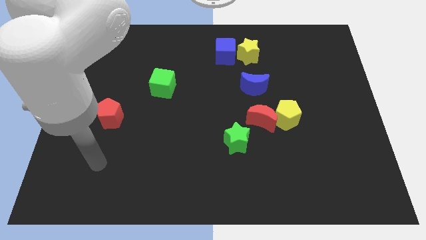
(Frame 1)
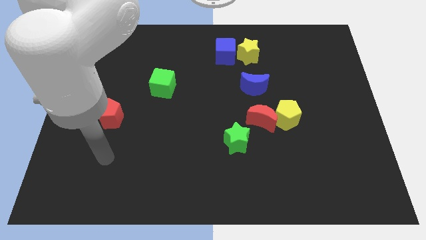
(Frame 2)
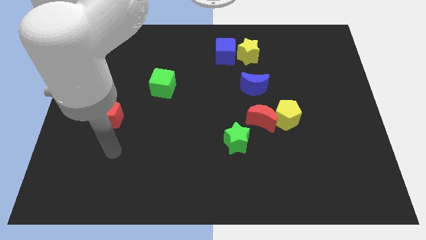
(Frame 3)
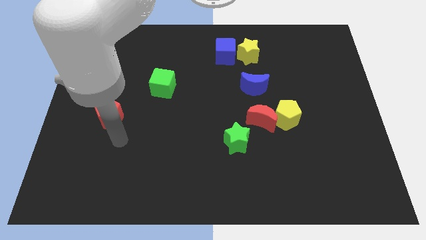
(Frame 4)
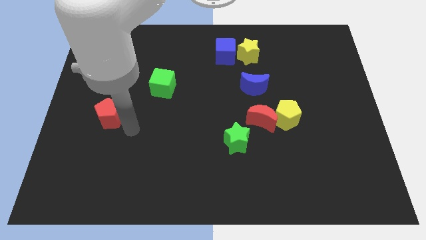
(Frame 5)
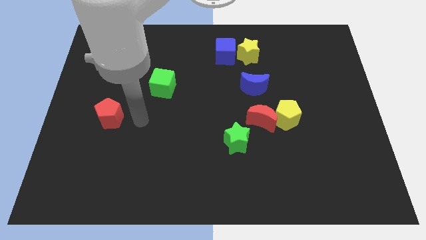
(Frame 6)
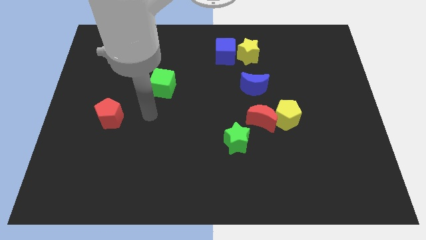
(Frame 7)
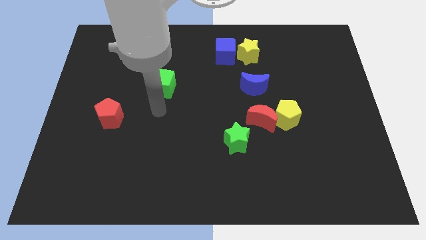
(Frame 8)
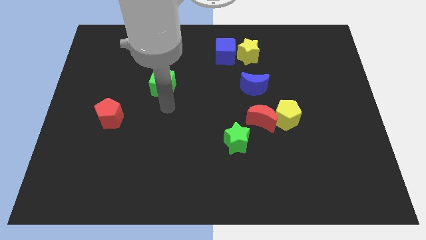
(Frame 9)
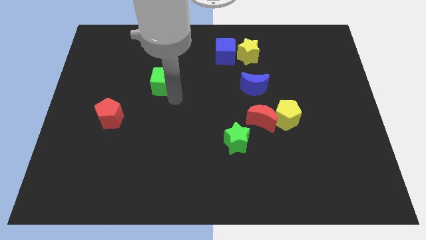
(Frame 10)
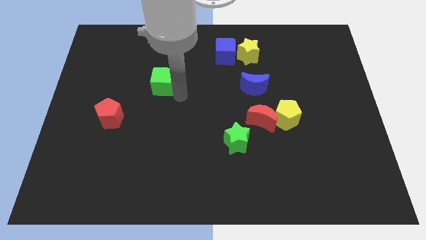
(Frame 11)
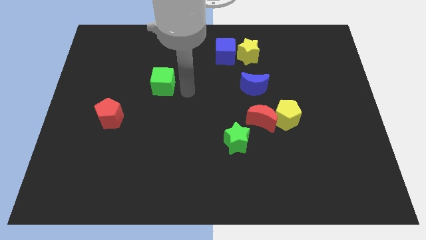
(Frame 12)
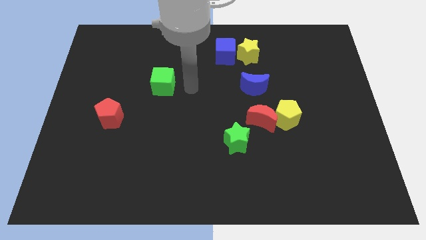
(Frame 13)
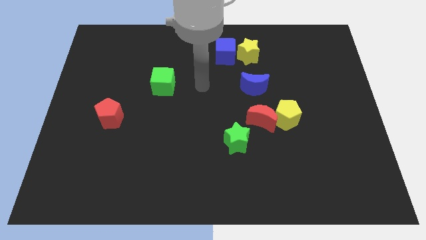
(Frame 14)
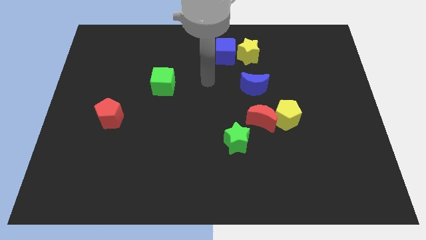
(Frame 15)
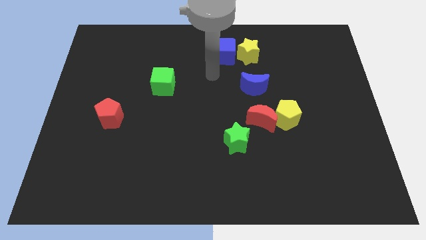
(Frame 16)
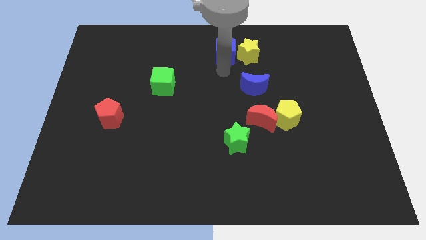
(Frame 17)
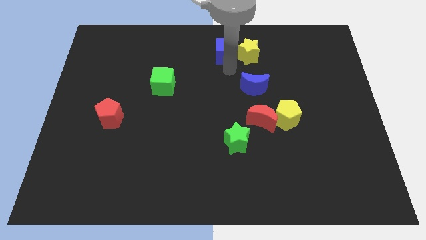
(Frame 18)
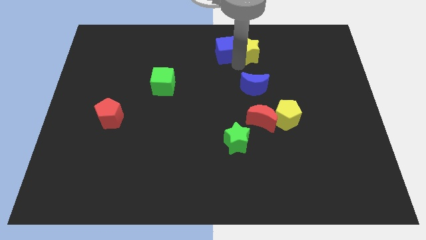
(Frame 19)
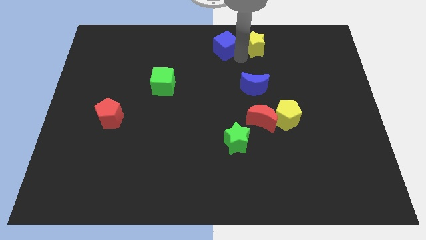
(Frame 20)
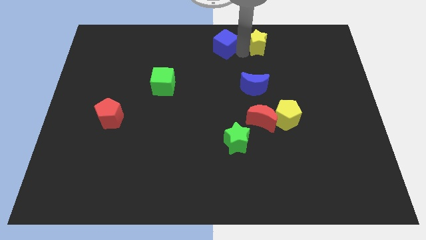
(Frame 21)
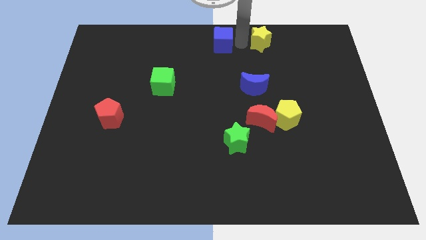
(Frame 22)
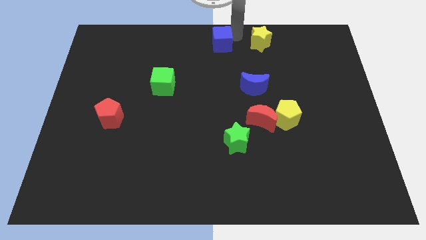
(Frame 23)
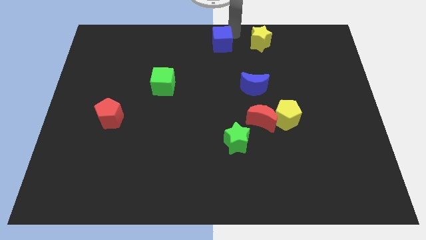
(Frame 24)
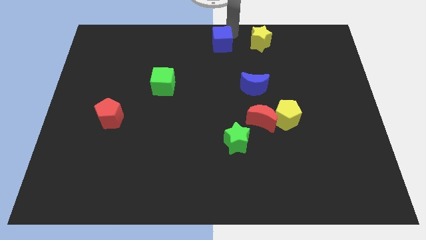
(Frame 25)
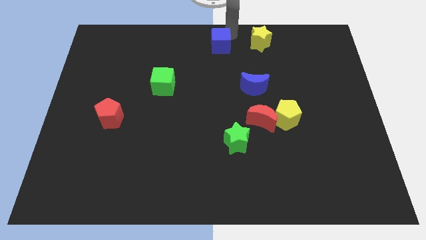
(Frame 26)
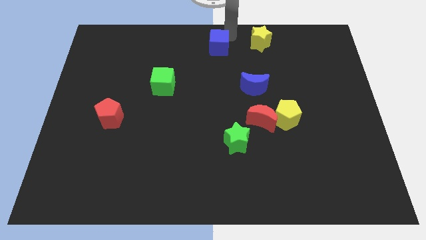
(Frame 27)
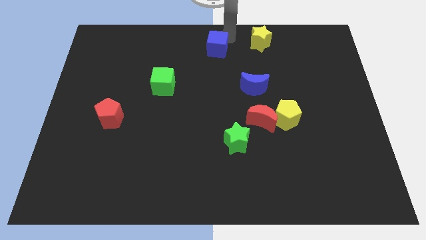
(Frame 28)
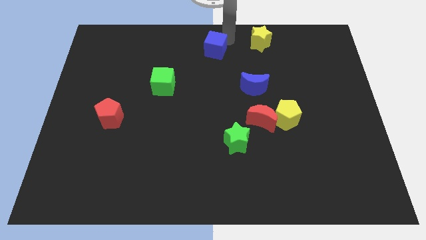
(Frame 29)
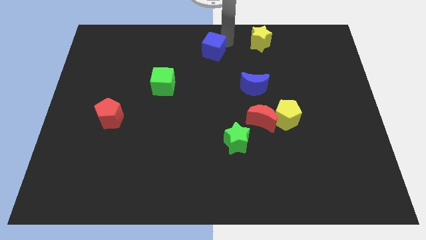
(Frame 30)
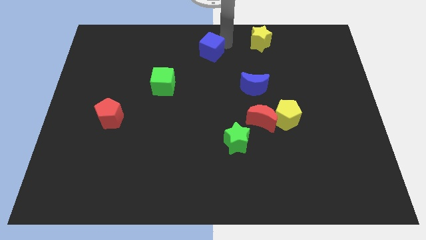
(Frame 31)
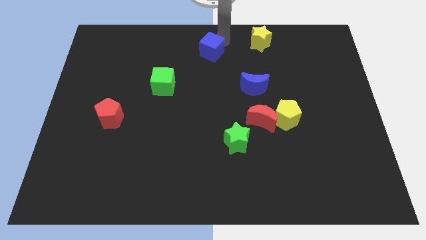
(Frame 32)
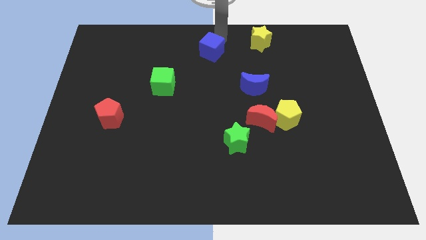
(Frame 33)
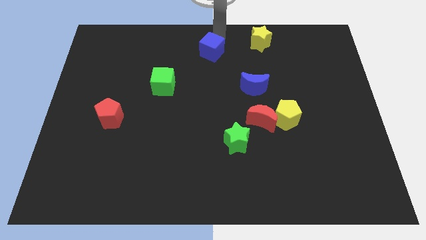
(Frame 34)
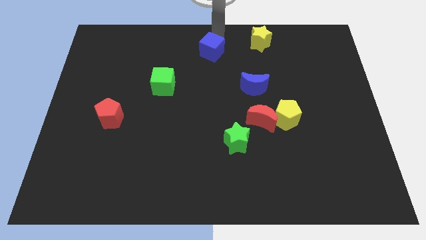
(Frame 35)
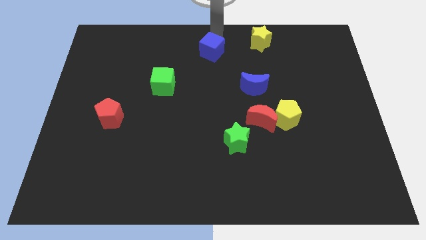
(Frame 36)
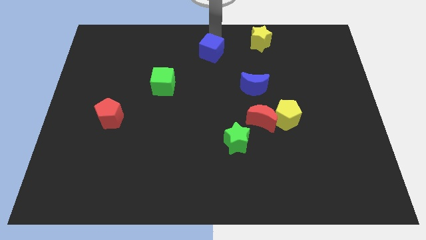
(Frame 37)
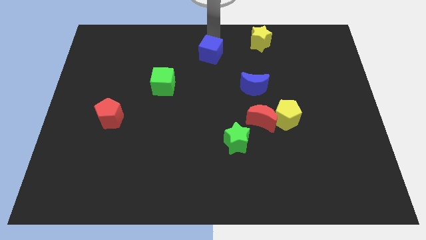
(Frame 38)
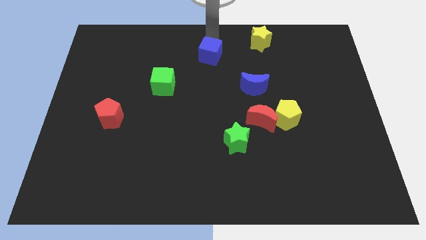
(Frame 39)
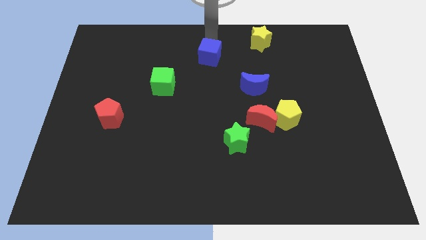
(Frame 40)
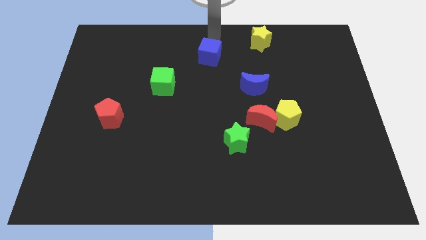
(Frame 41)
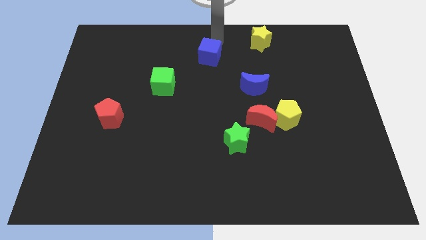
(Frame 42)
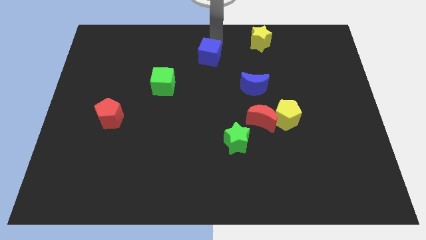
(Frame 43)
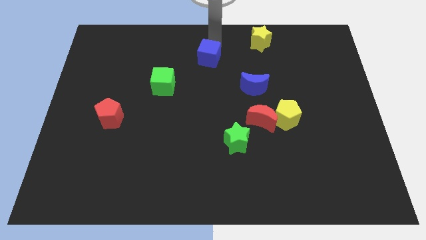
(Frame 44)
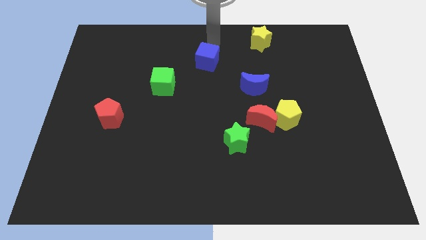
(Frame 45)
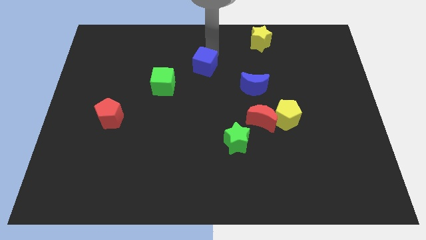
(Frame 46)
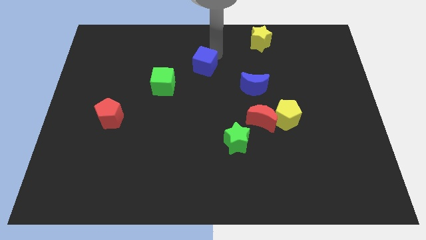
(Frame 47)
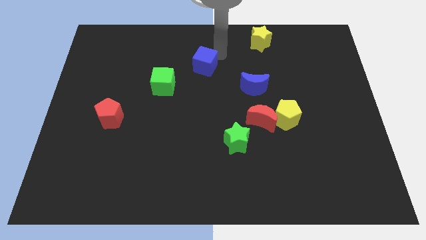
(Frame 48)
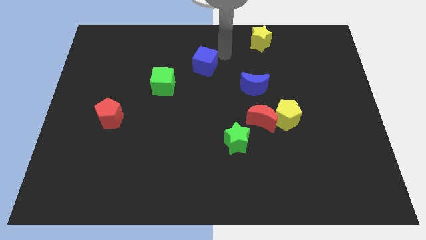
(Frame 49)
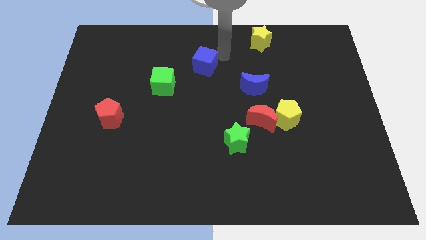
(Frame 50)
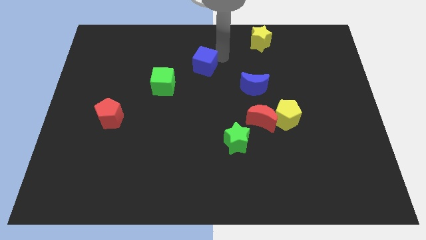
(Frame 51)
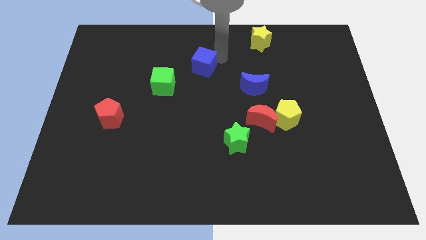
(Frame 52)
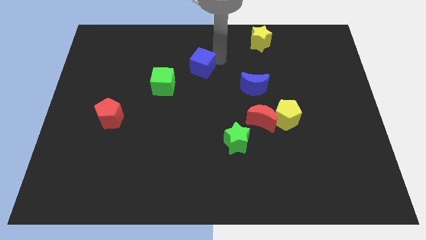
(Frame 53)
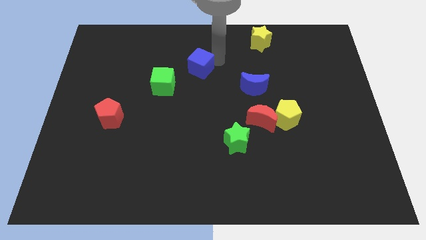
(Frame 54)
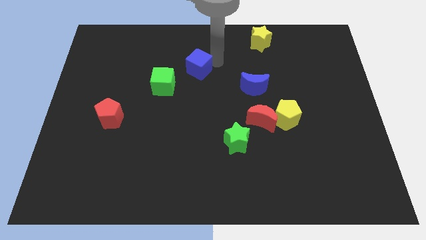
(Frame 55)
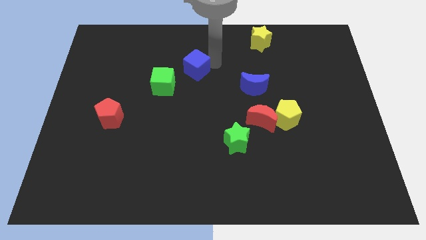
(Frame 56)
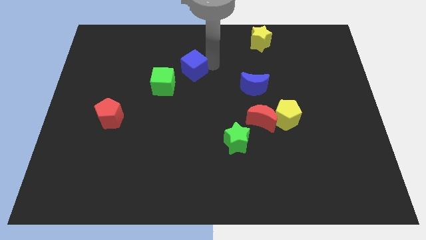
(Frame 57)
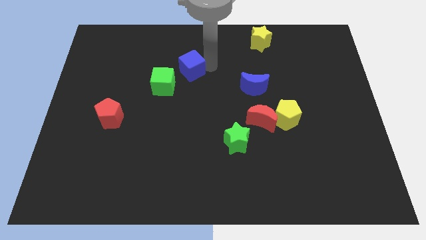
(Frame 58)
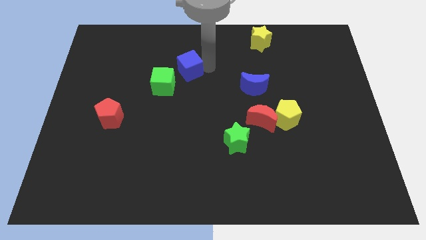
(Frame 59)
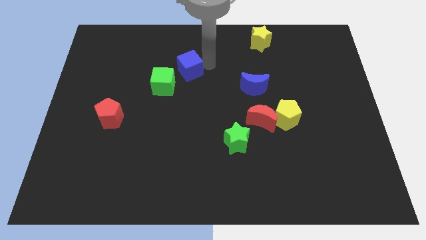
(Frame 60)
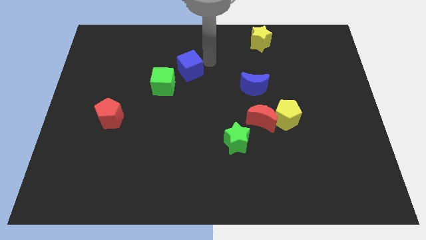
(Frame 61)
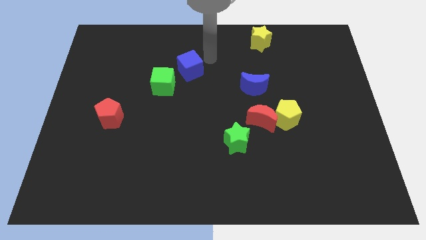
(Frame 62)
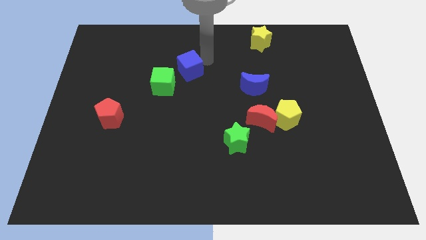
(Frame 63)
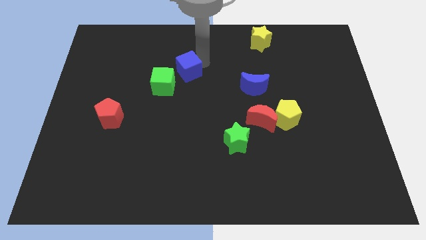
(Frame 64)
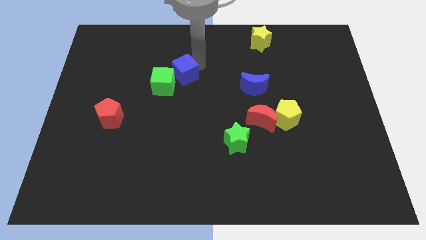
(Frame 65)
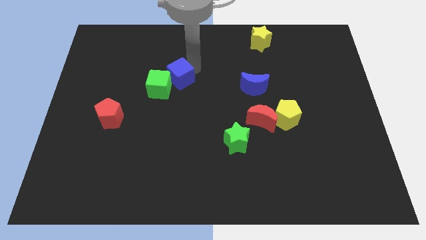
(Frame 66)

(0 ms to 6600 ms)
put the blue cube towards the green cube

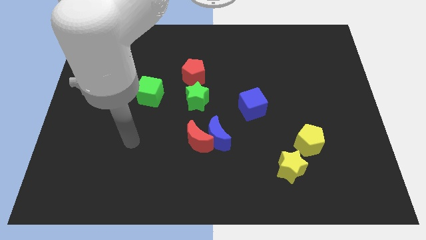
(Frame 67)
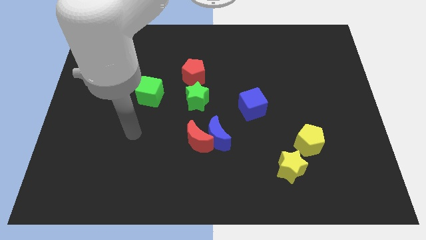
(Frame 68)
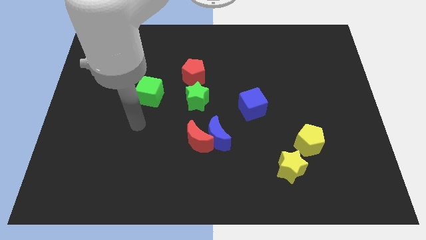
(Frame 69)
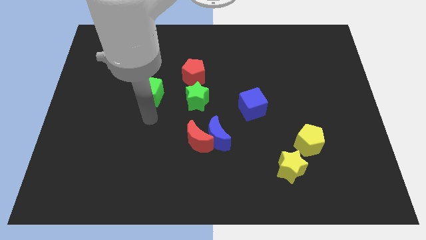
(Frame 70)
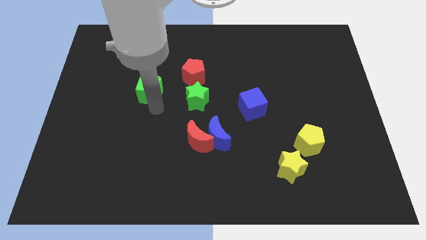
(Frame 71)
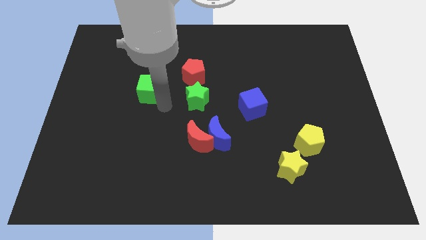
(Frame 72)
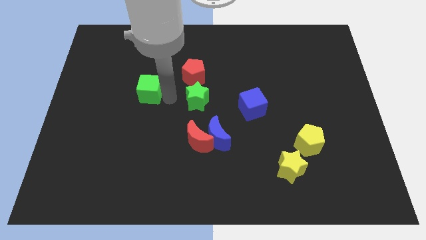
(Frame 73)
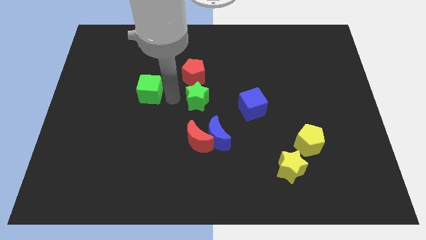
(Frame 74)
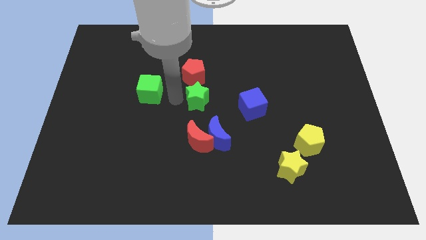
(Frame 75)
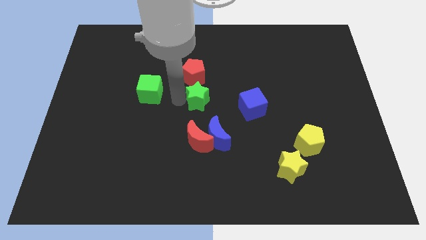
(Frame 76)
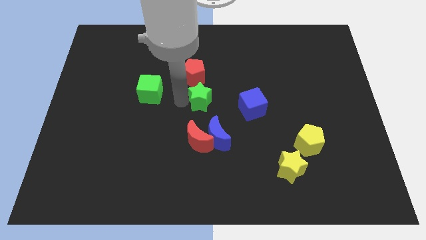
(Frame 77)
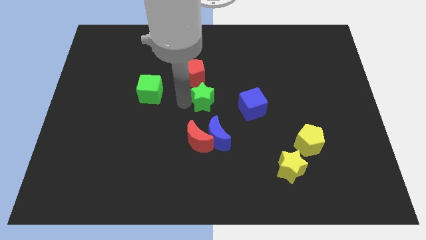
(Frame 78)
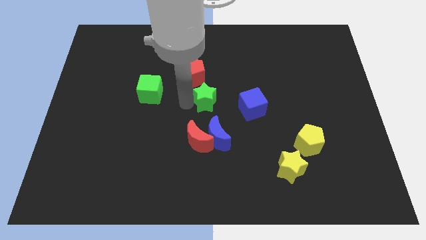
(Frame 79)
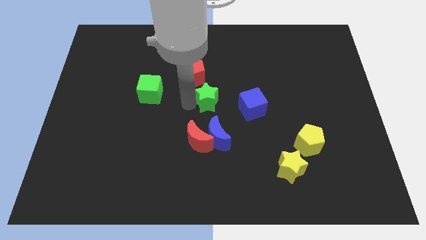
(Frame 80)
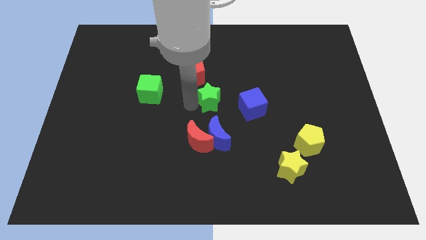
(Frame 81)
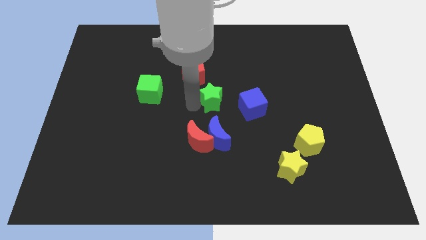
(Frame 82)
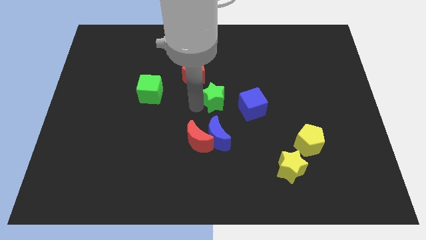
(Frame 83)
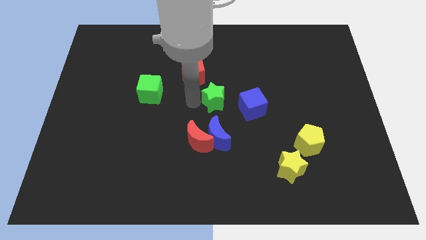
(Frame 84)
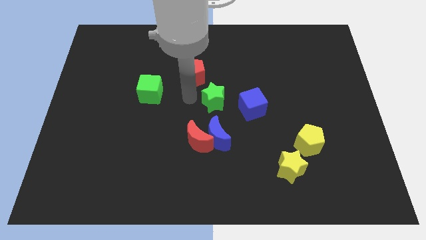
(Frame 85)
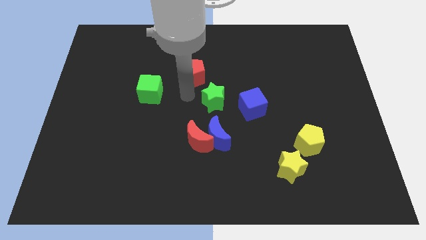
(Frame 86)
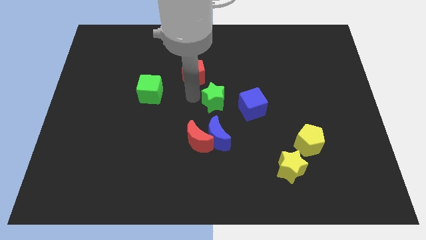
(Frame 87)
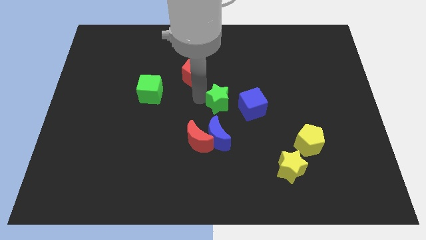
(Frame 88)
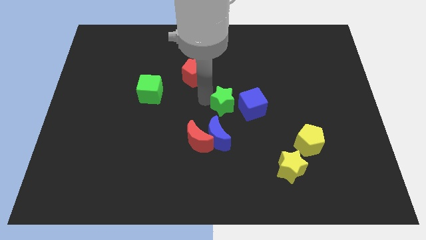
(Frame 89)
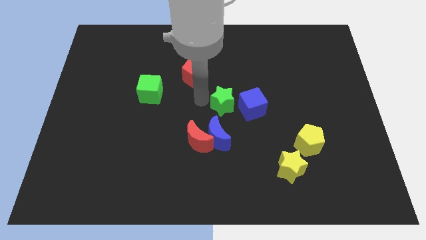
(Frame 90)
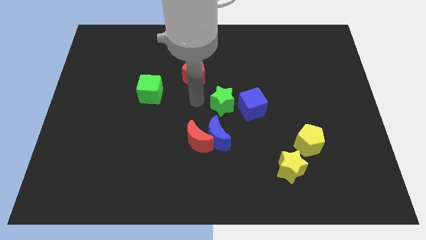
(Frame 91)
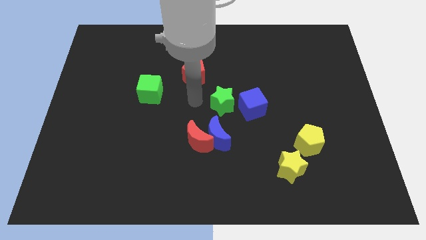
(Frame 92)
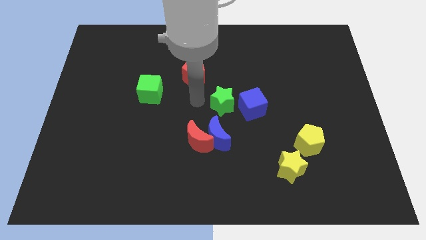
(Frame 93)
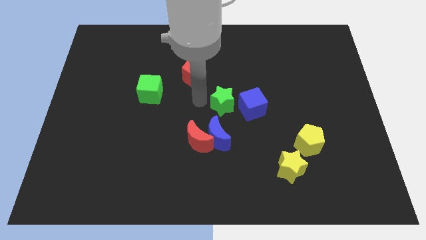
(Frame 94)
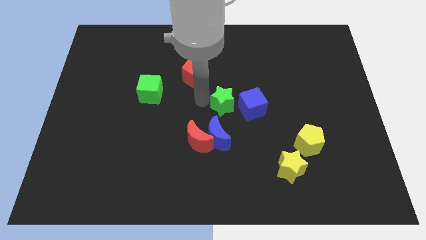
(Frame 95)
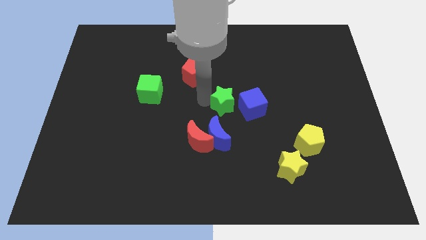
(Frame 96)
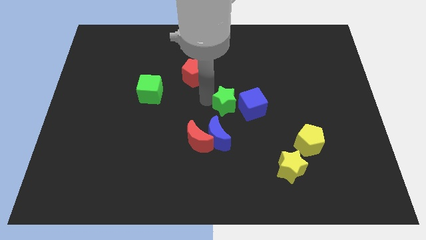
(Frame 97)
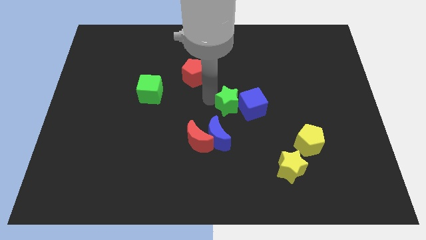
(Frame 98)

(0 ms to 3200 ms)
put the green star next to the blue cube
